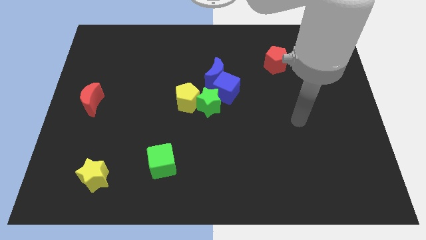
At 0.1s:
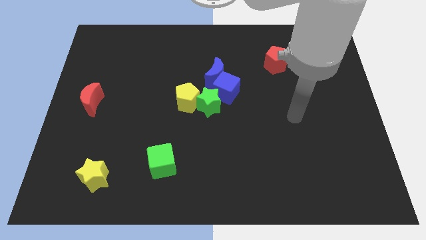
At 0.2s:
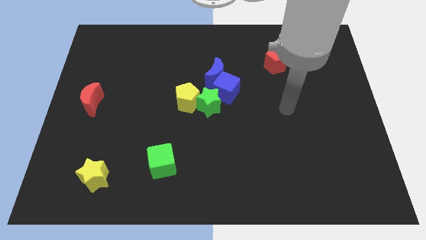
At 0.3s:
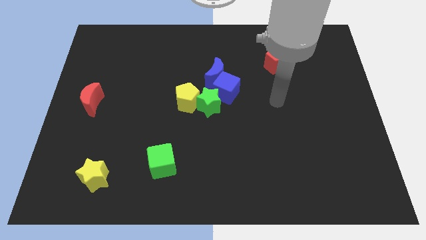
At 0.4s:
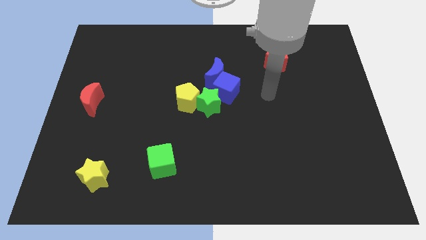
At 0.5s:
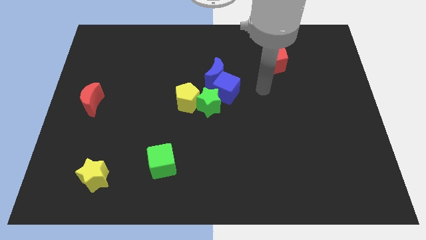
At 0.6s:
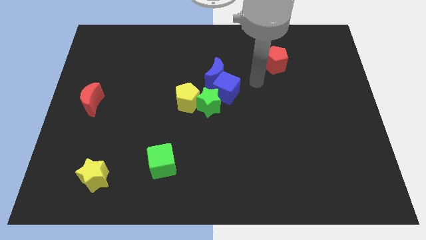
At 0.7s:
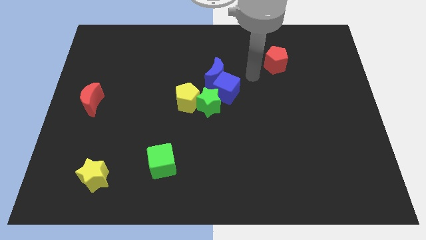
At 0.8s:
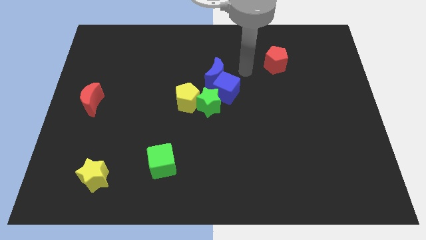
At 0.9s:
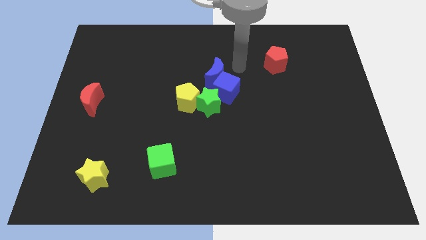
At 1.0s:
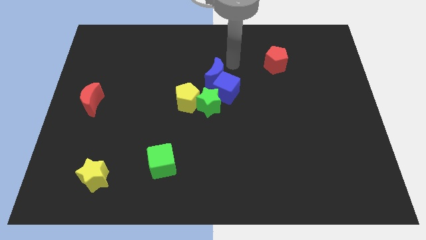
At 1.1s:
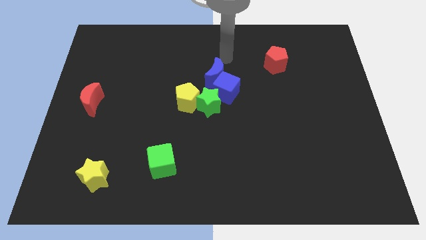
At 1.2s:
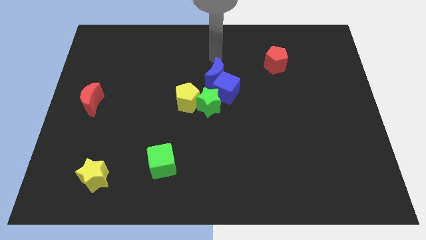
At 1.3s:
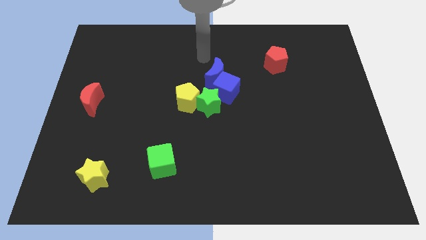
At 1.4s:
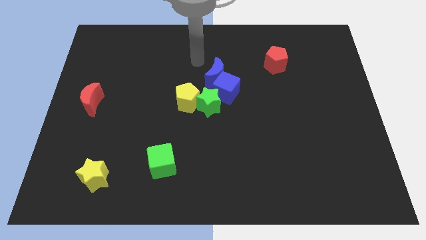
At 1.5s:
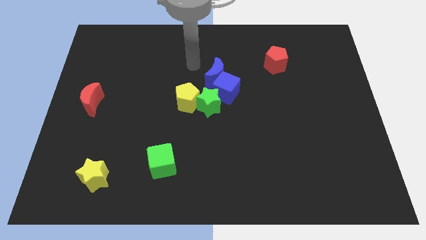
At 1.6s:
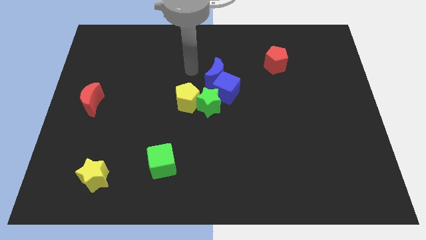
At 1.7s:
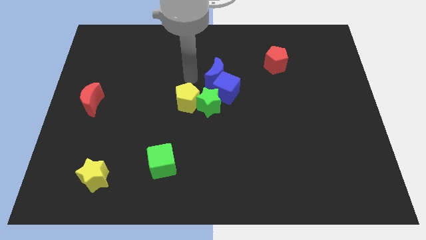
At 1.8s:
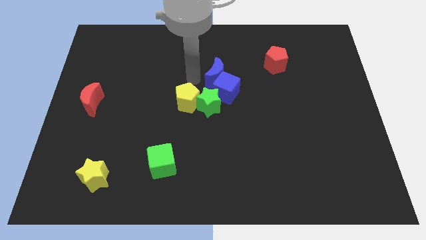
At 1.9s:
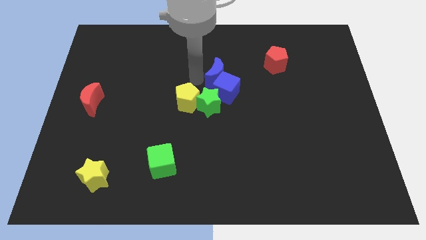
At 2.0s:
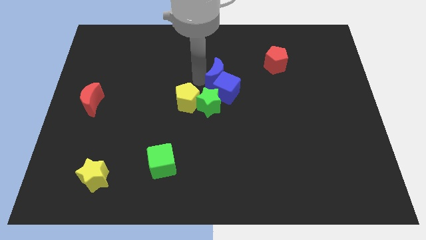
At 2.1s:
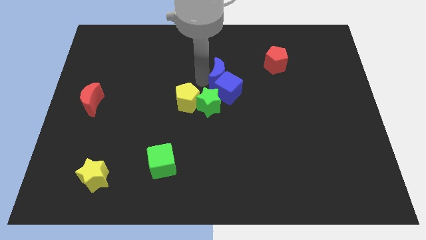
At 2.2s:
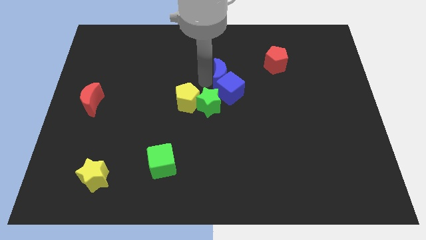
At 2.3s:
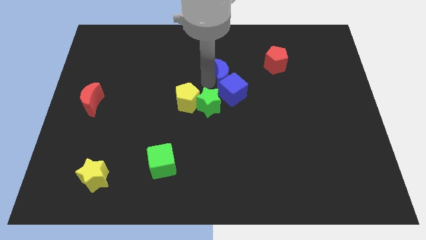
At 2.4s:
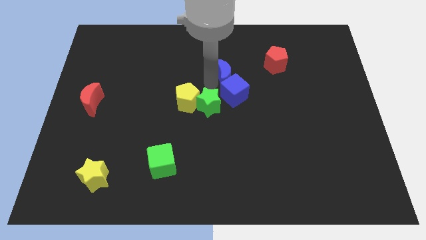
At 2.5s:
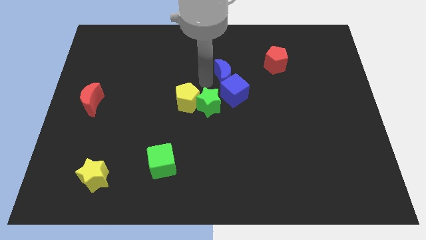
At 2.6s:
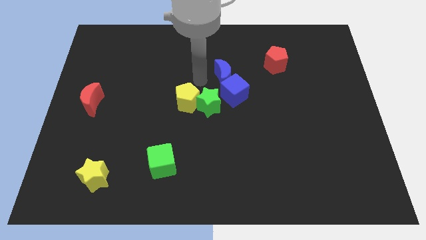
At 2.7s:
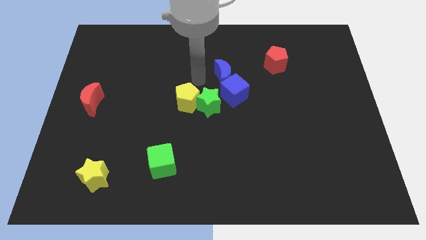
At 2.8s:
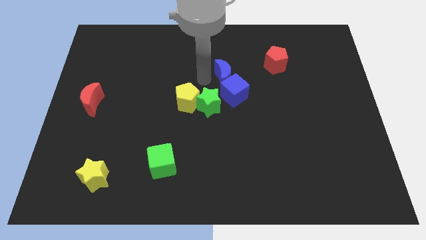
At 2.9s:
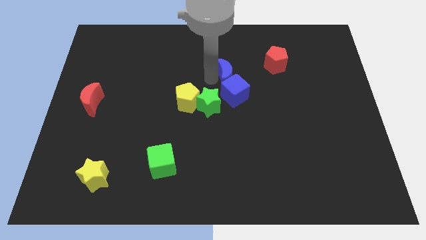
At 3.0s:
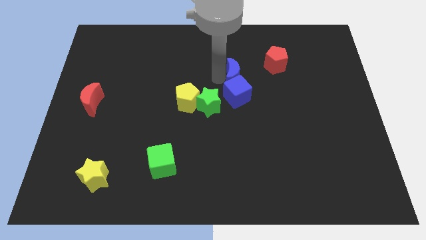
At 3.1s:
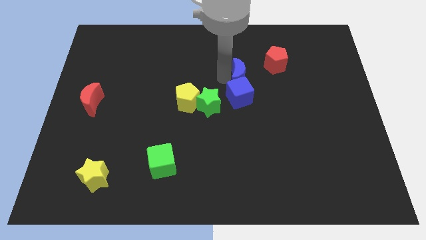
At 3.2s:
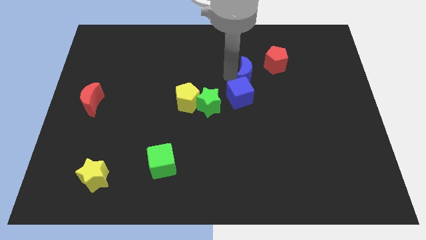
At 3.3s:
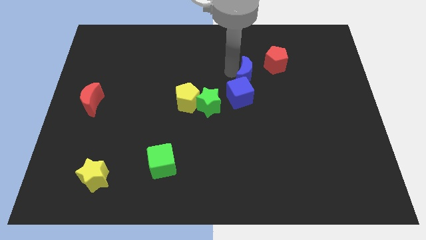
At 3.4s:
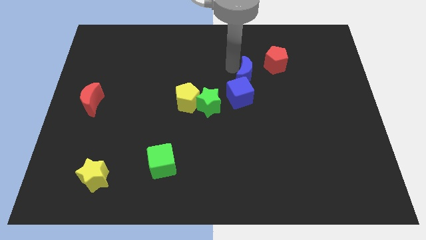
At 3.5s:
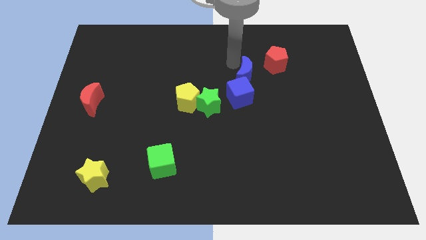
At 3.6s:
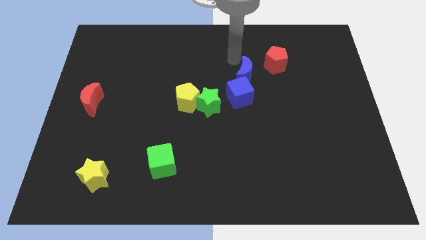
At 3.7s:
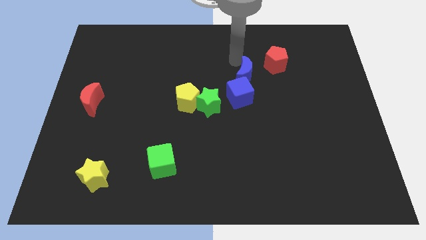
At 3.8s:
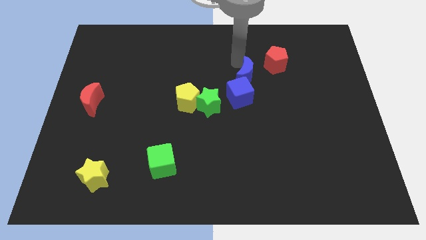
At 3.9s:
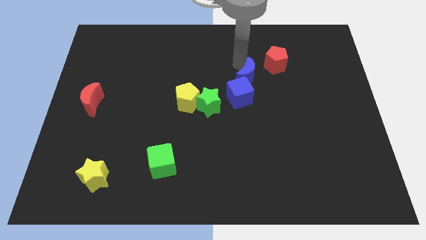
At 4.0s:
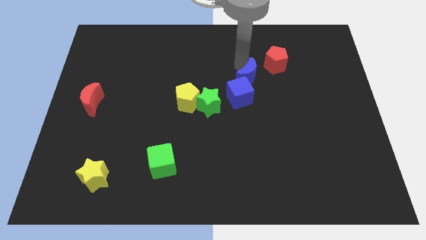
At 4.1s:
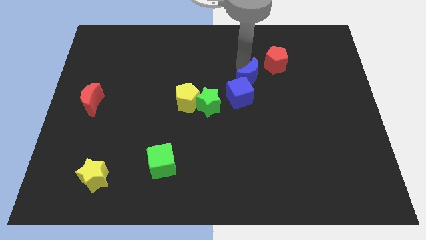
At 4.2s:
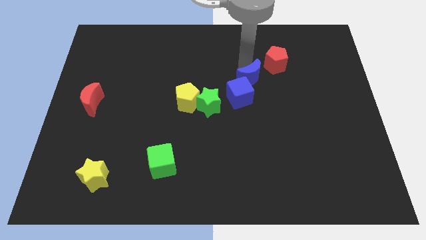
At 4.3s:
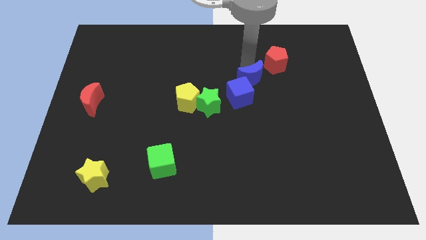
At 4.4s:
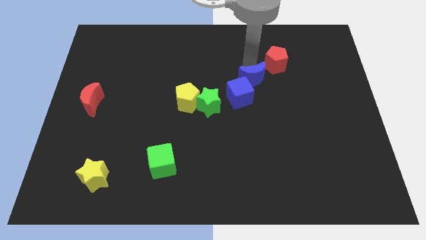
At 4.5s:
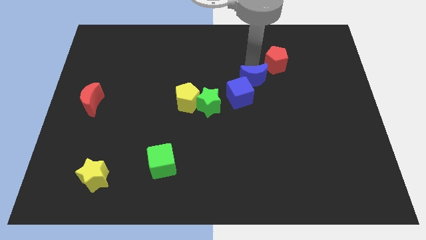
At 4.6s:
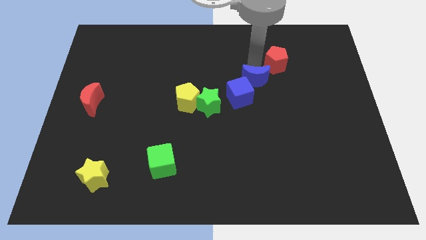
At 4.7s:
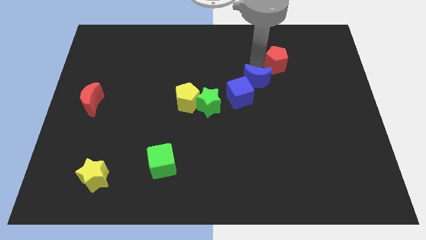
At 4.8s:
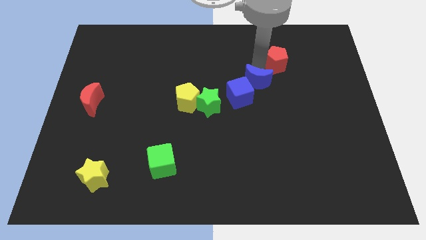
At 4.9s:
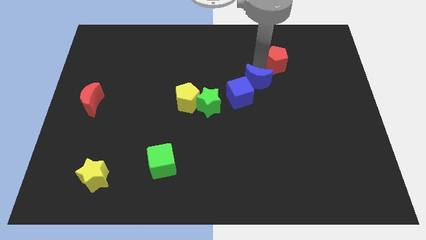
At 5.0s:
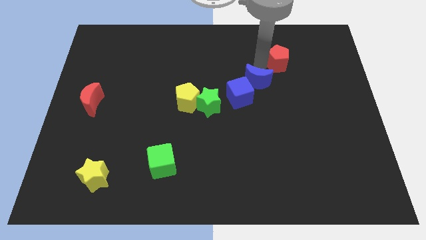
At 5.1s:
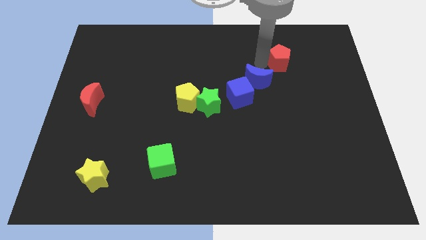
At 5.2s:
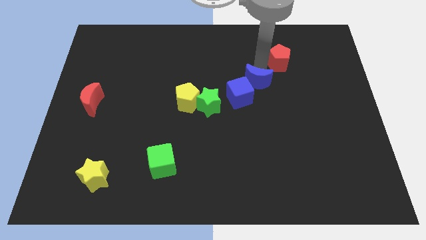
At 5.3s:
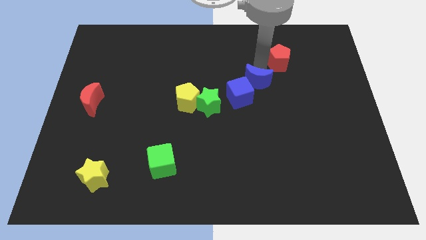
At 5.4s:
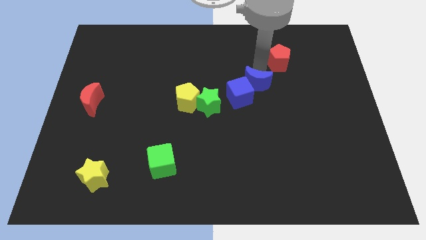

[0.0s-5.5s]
push the blue moon a bit down and to the right diagonally

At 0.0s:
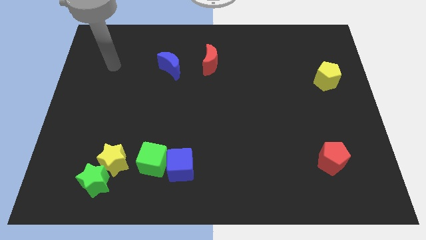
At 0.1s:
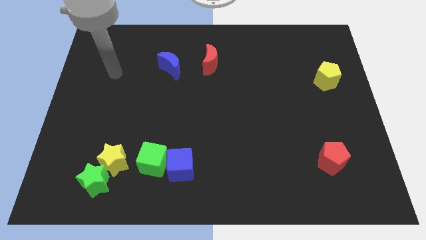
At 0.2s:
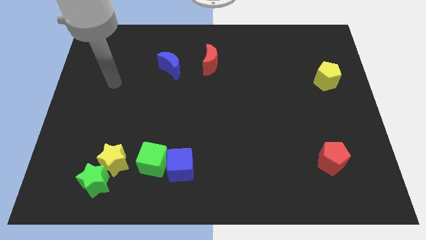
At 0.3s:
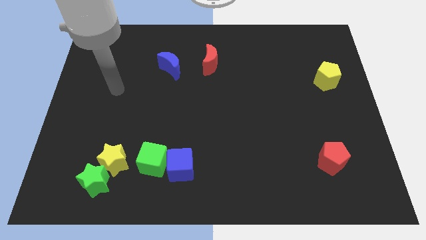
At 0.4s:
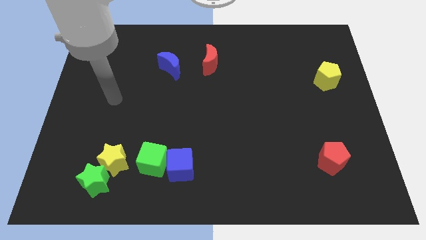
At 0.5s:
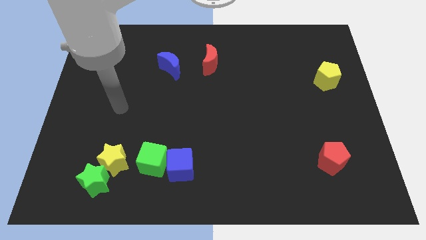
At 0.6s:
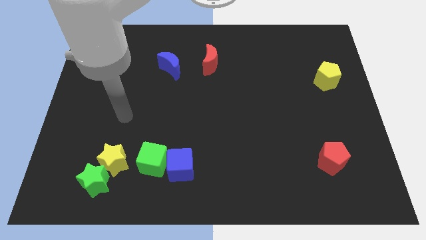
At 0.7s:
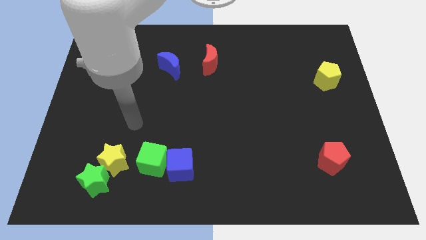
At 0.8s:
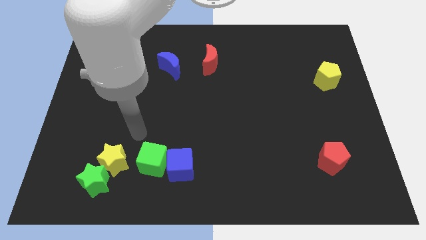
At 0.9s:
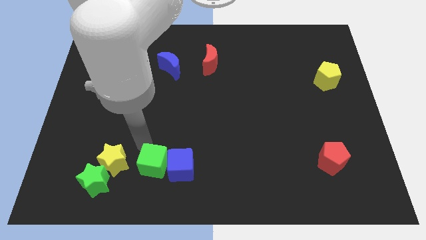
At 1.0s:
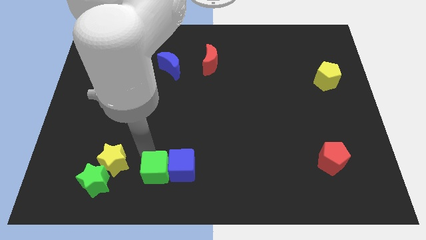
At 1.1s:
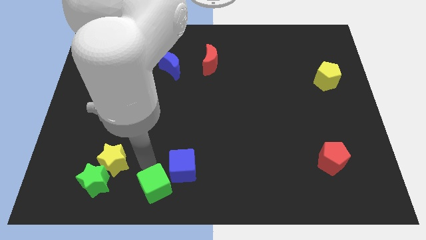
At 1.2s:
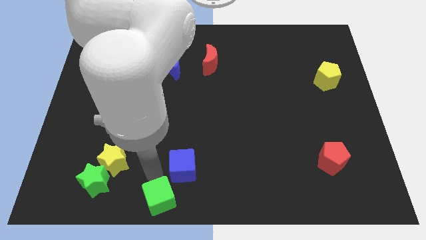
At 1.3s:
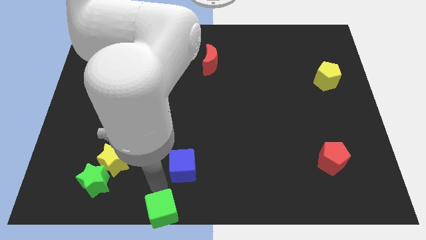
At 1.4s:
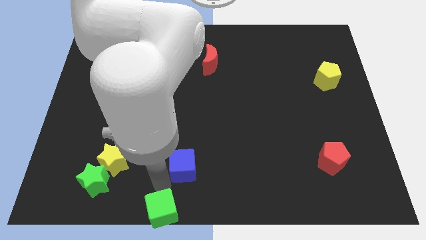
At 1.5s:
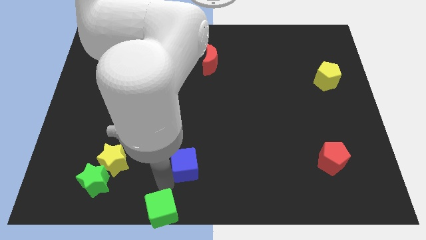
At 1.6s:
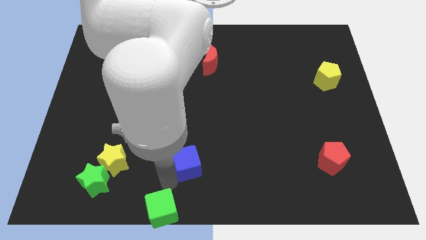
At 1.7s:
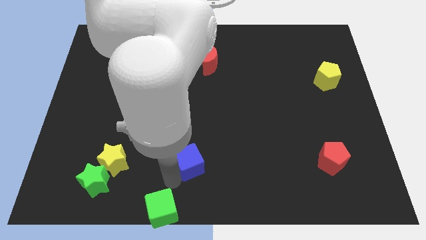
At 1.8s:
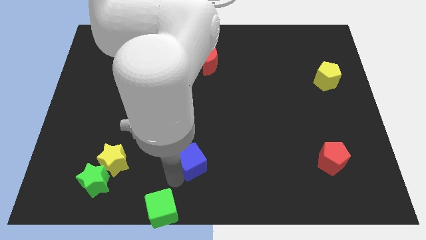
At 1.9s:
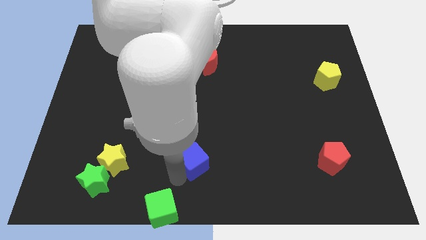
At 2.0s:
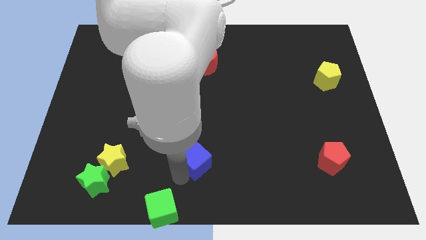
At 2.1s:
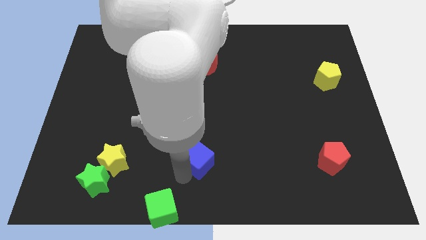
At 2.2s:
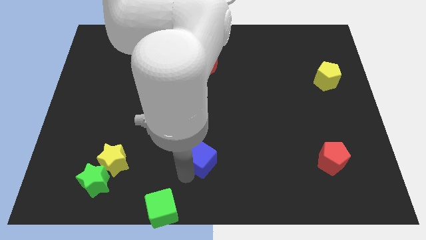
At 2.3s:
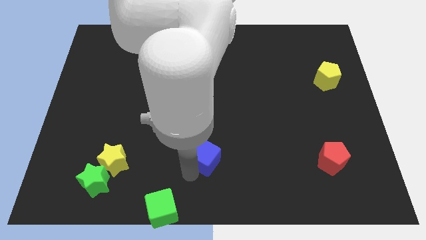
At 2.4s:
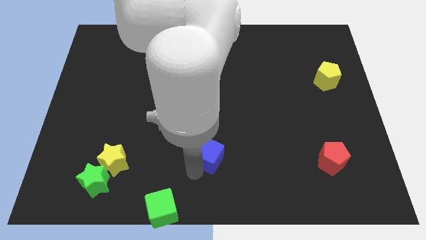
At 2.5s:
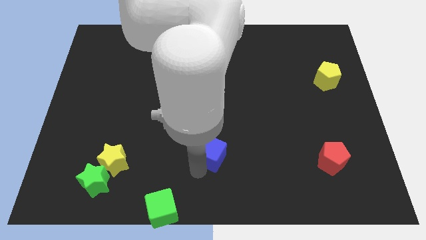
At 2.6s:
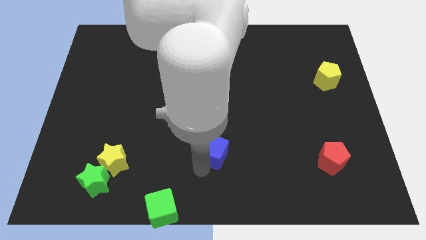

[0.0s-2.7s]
move the blue cube somewhat up and then to the right

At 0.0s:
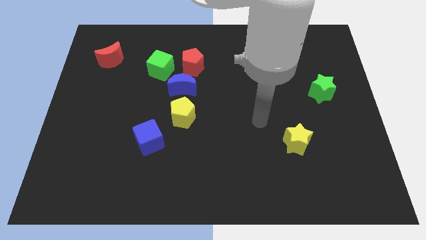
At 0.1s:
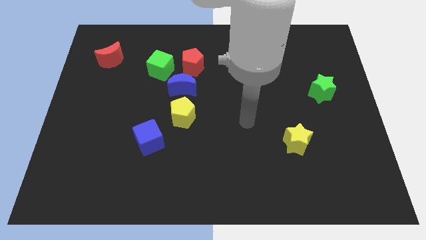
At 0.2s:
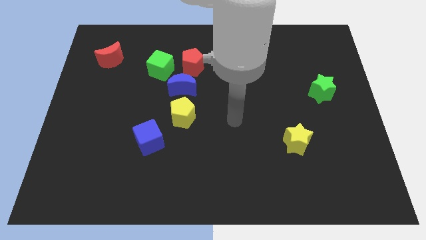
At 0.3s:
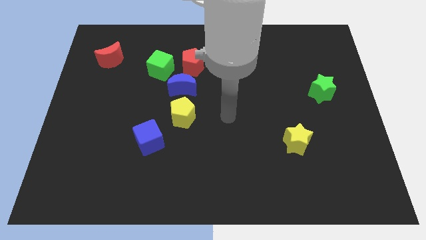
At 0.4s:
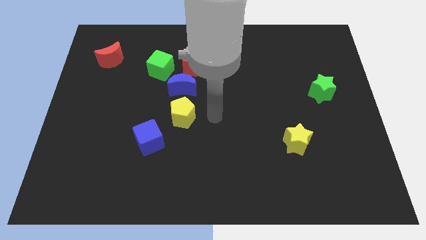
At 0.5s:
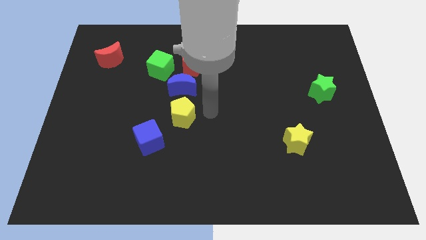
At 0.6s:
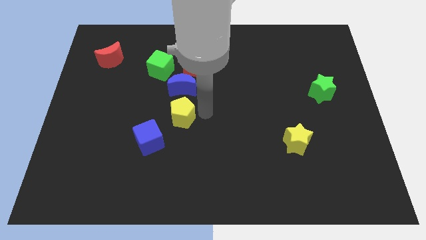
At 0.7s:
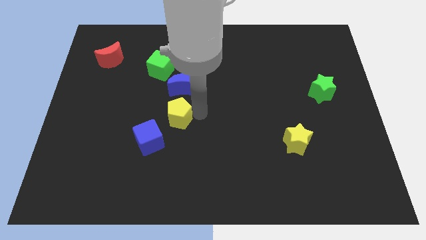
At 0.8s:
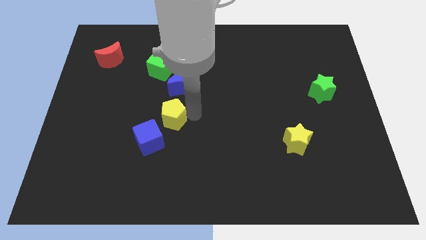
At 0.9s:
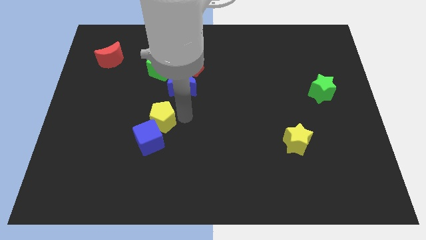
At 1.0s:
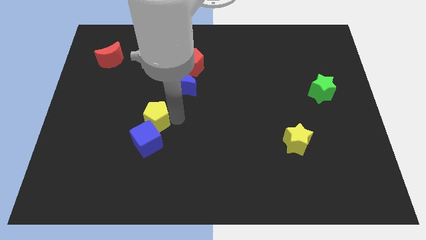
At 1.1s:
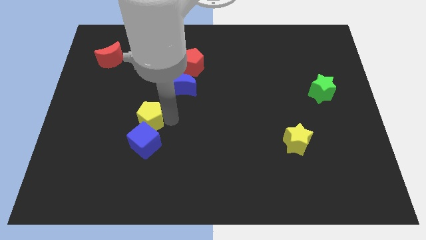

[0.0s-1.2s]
slightly push the yellow pentagon left
